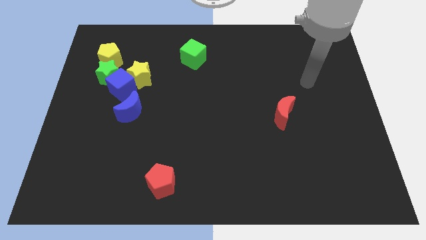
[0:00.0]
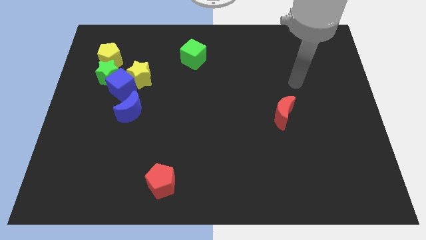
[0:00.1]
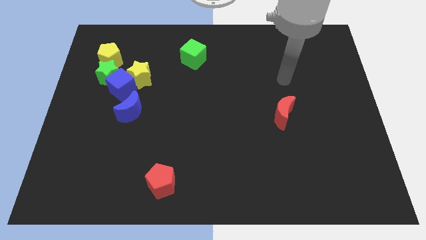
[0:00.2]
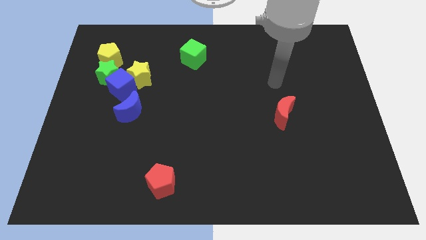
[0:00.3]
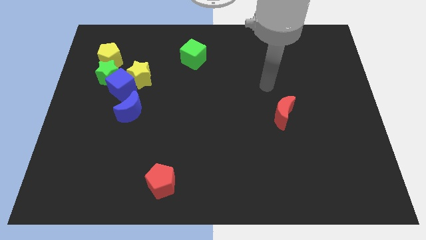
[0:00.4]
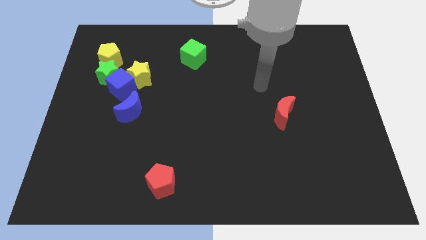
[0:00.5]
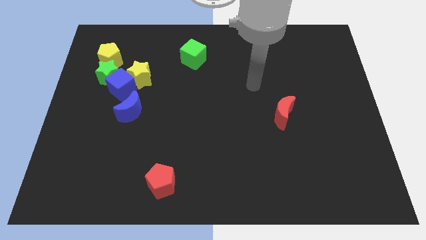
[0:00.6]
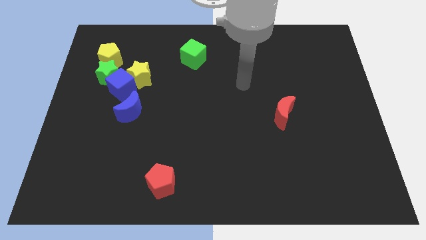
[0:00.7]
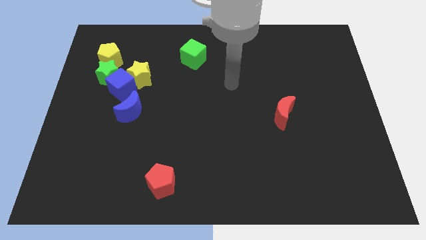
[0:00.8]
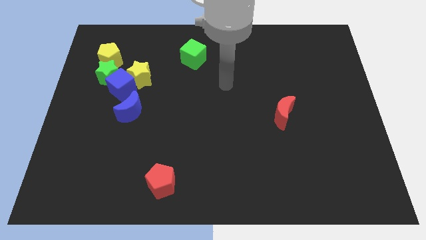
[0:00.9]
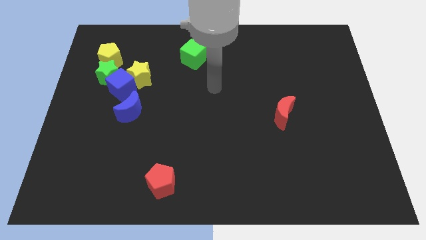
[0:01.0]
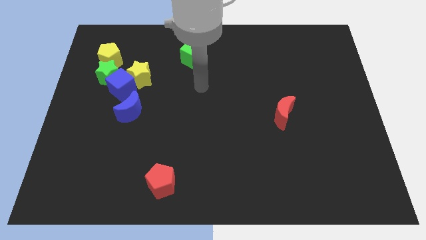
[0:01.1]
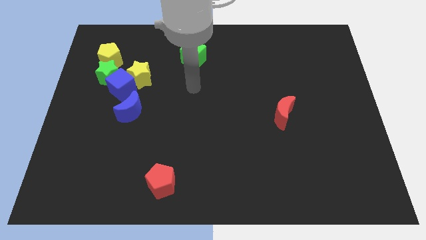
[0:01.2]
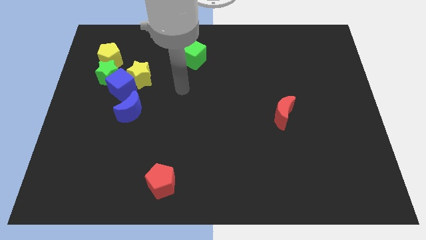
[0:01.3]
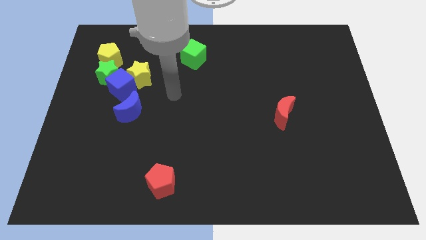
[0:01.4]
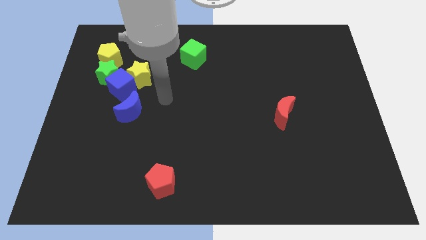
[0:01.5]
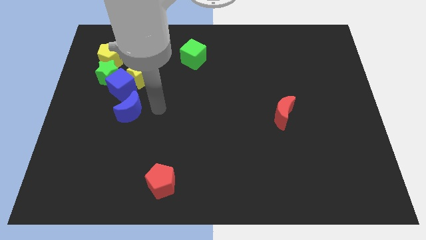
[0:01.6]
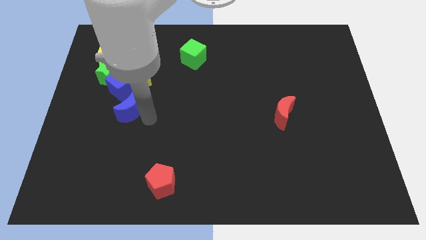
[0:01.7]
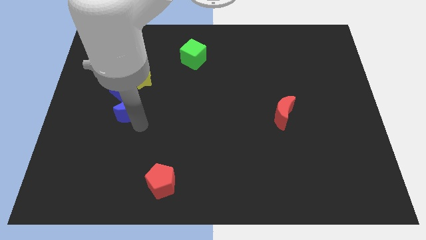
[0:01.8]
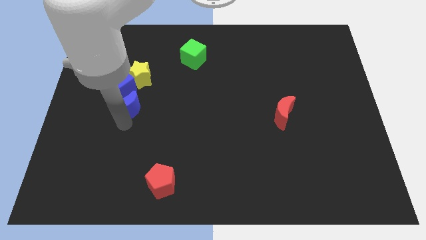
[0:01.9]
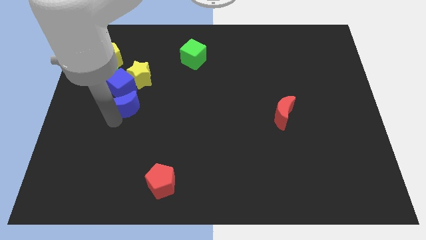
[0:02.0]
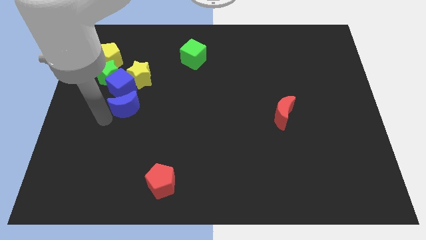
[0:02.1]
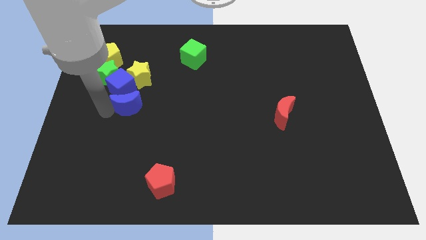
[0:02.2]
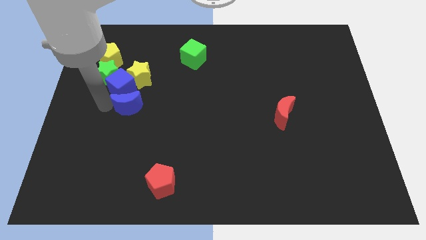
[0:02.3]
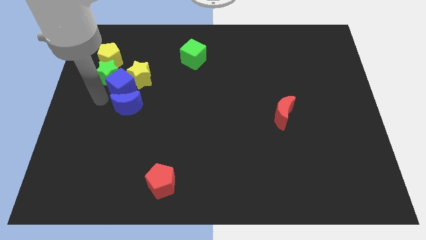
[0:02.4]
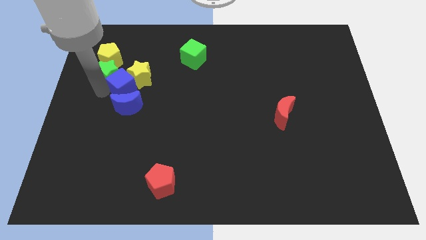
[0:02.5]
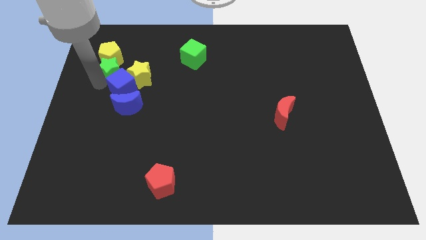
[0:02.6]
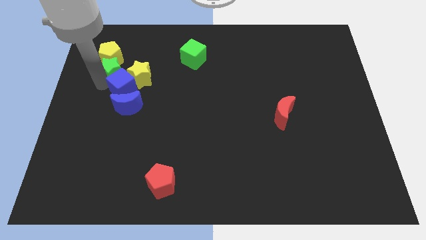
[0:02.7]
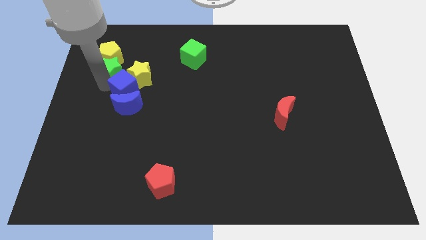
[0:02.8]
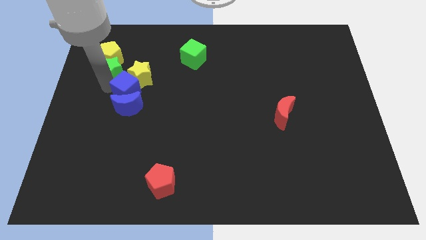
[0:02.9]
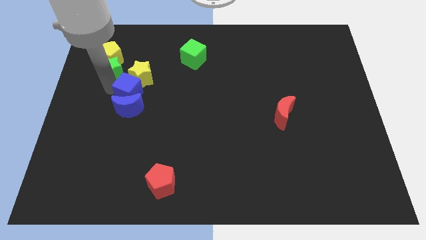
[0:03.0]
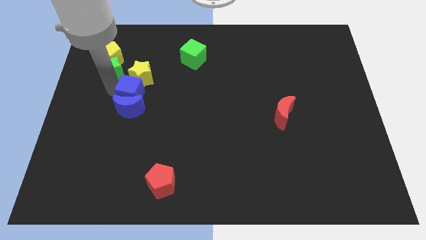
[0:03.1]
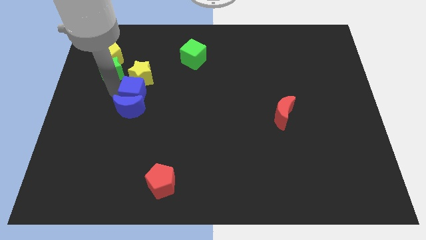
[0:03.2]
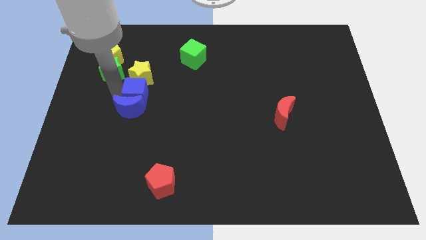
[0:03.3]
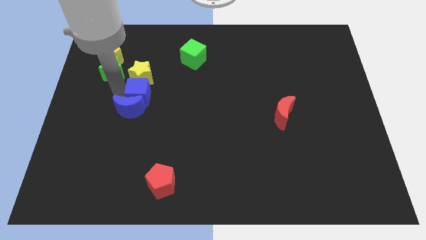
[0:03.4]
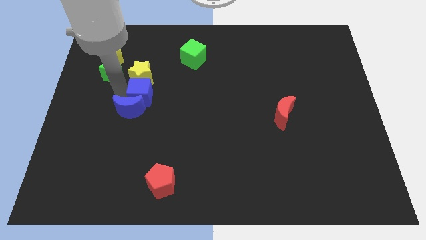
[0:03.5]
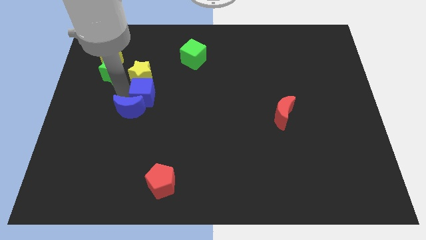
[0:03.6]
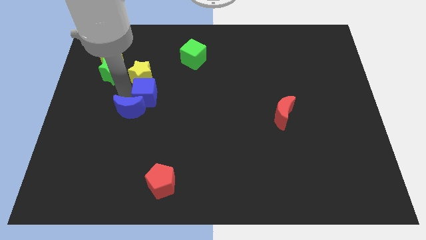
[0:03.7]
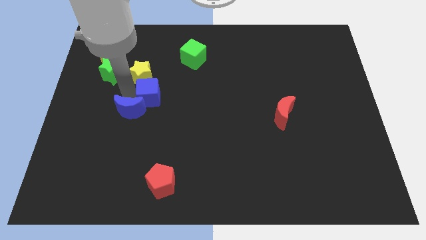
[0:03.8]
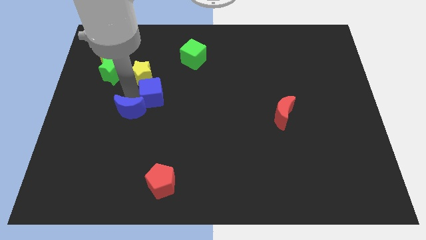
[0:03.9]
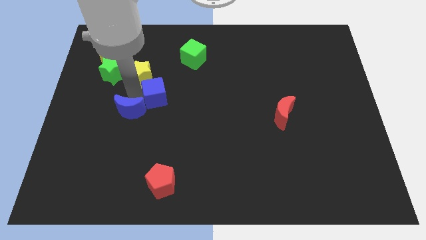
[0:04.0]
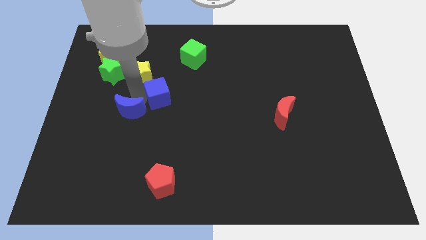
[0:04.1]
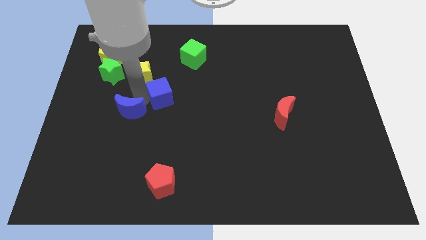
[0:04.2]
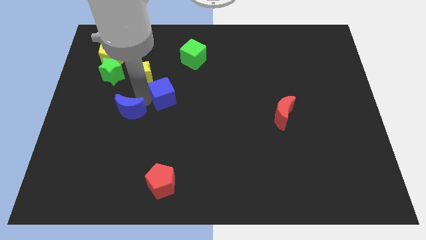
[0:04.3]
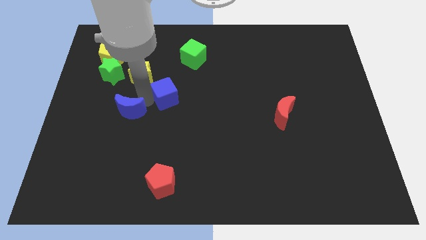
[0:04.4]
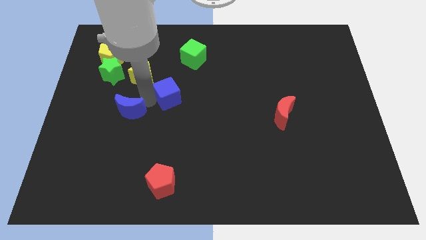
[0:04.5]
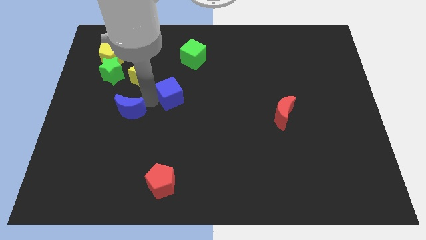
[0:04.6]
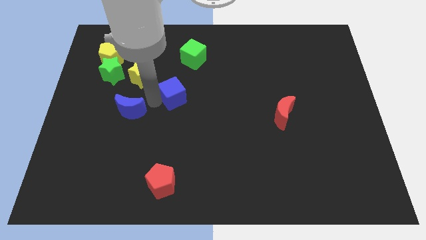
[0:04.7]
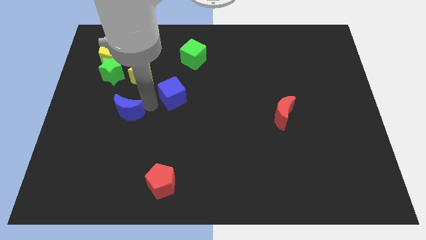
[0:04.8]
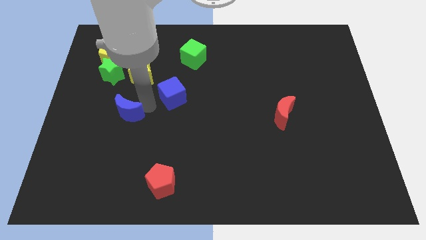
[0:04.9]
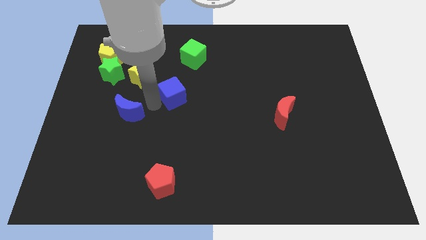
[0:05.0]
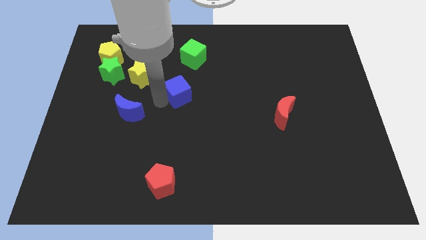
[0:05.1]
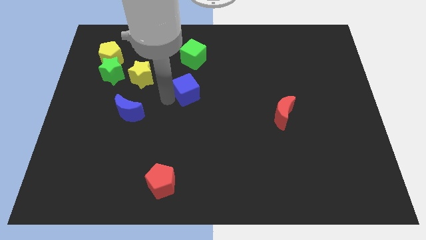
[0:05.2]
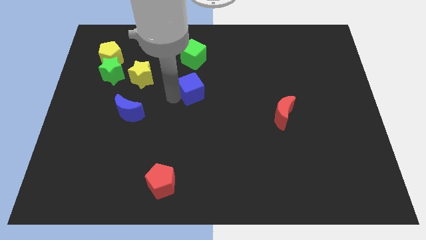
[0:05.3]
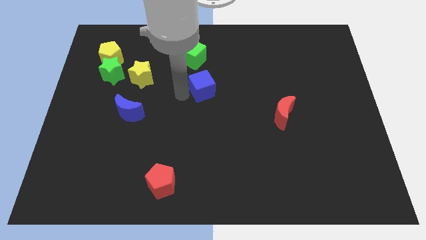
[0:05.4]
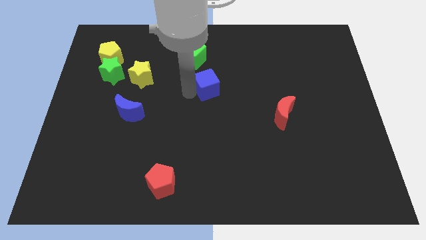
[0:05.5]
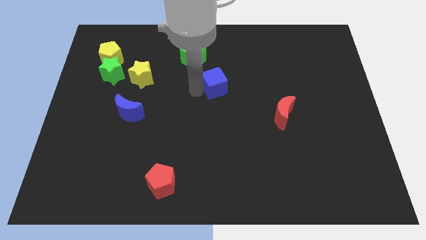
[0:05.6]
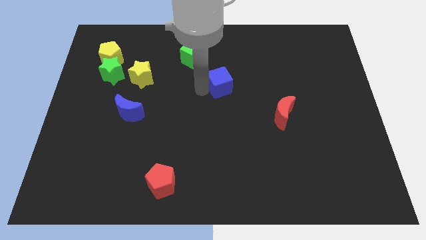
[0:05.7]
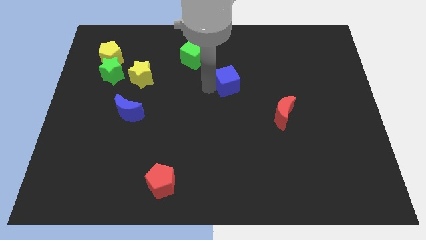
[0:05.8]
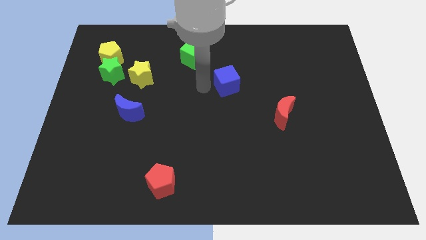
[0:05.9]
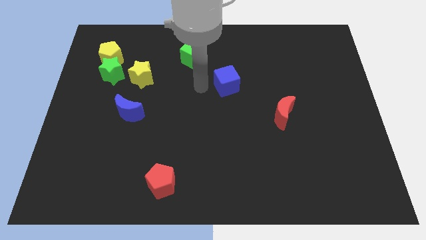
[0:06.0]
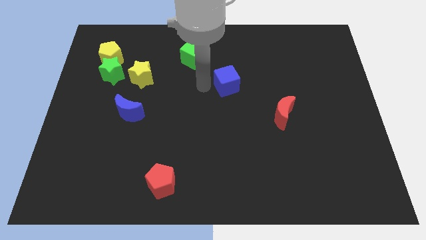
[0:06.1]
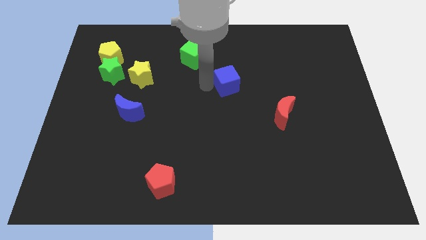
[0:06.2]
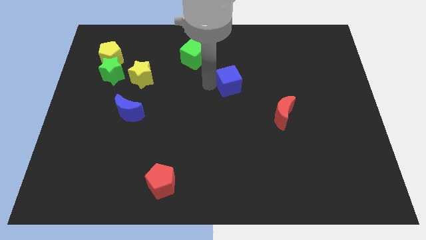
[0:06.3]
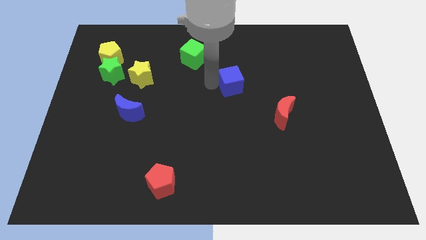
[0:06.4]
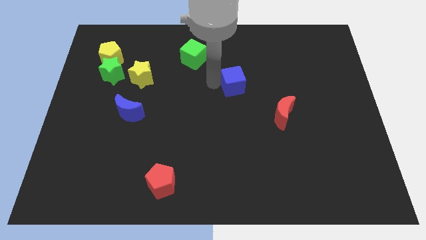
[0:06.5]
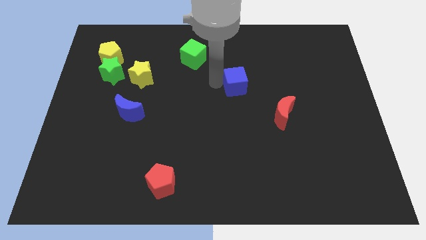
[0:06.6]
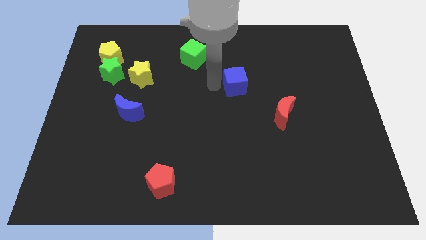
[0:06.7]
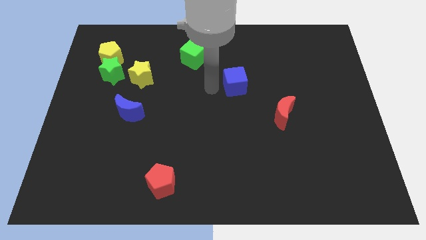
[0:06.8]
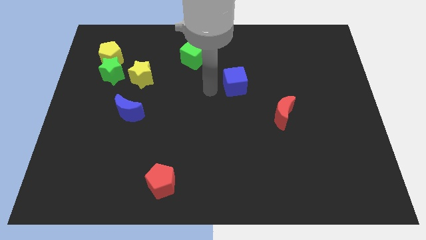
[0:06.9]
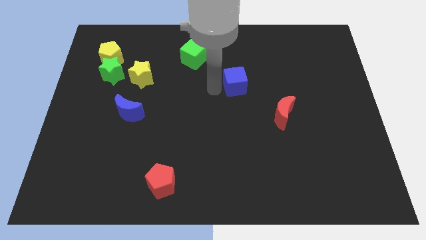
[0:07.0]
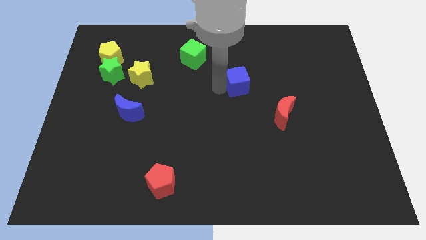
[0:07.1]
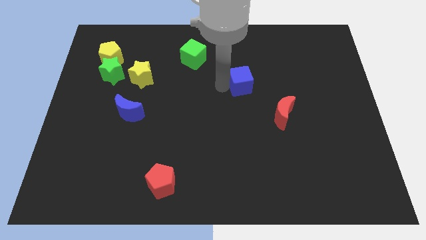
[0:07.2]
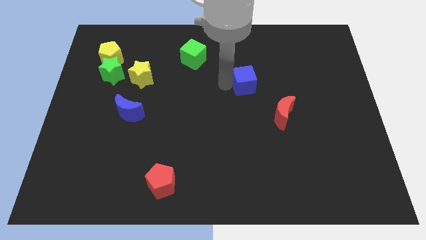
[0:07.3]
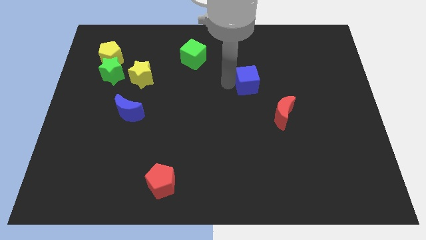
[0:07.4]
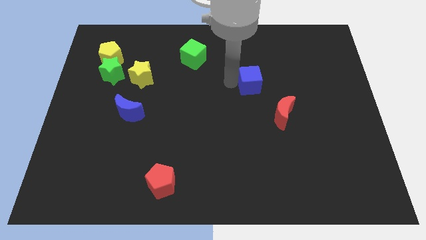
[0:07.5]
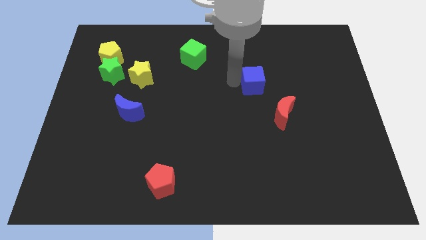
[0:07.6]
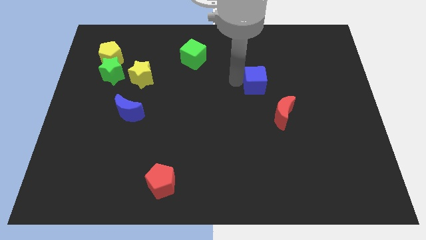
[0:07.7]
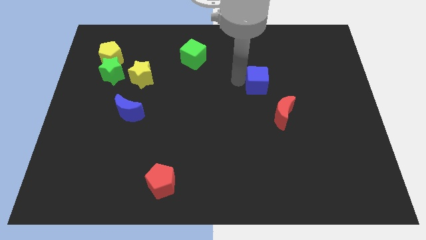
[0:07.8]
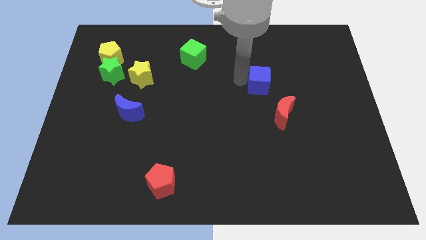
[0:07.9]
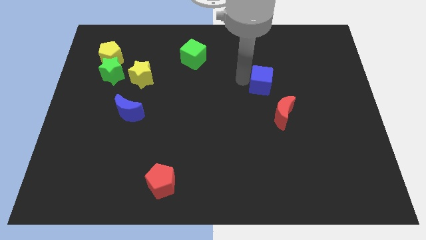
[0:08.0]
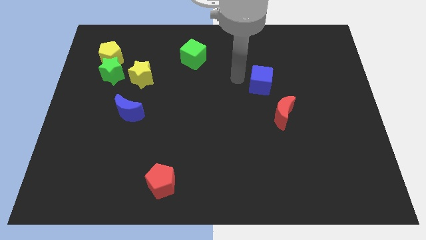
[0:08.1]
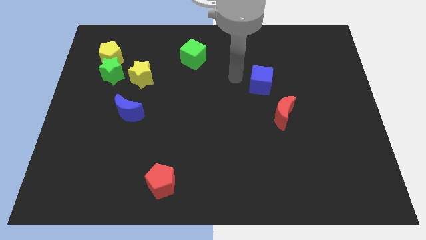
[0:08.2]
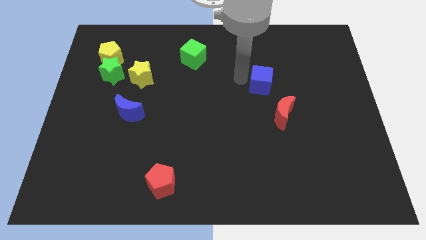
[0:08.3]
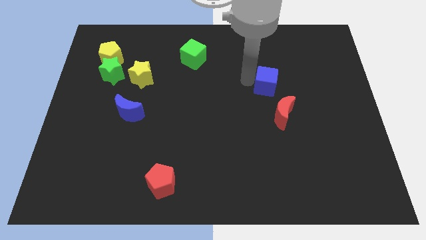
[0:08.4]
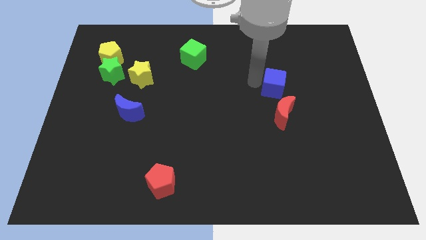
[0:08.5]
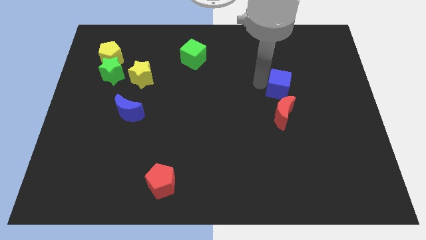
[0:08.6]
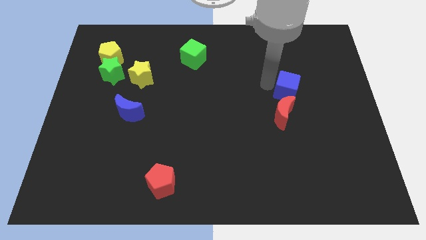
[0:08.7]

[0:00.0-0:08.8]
put the blue cube diagonally up and to the right of the red moon
